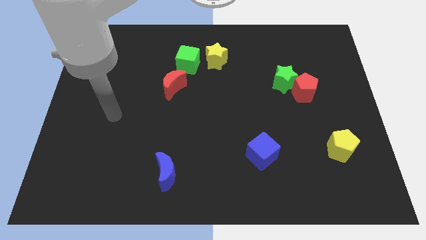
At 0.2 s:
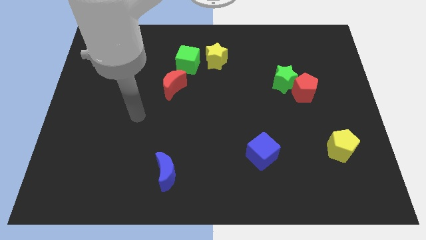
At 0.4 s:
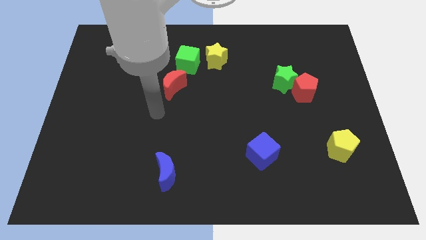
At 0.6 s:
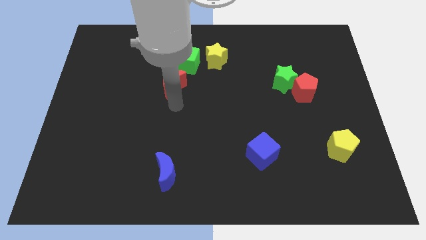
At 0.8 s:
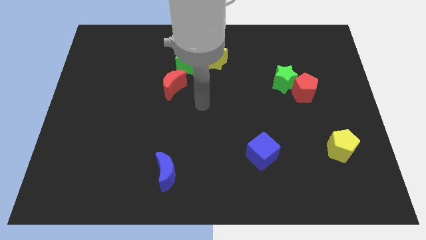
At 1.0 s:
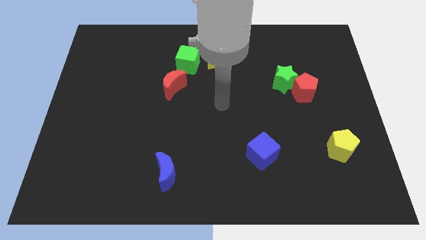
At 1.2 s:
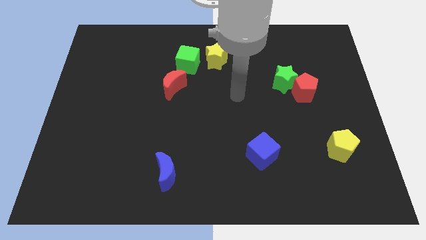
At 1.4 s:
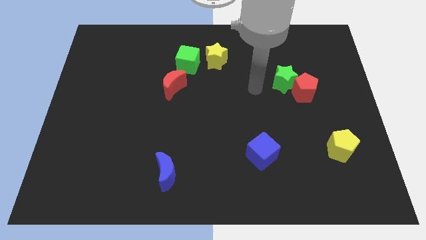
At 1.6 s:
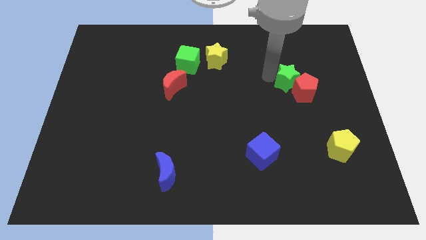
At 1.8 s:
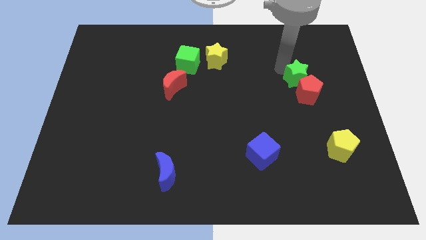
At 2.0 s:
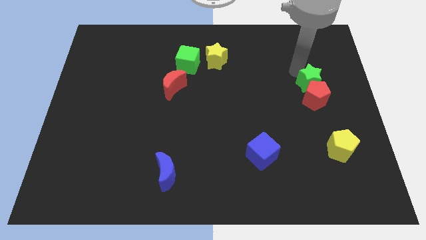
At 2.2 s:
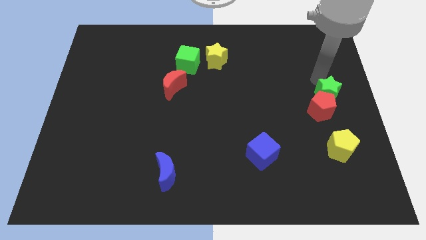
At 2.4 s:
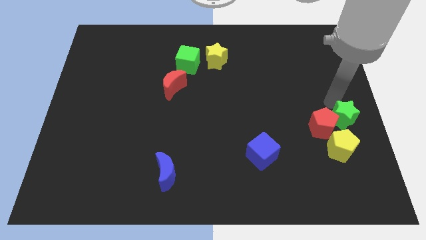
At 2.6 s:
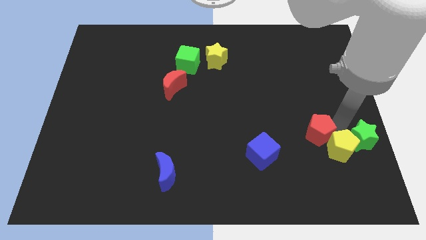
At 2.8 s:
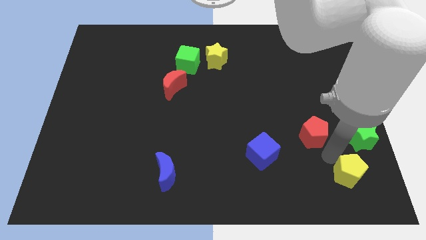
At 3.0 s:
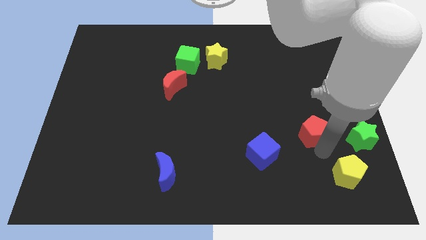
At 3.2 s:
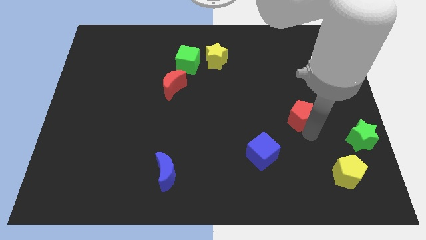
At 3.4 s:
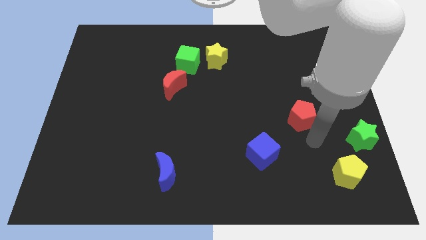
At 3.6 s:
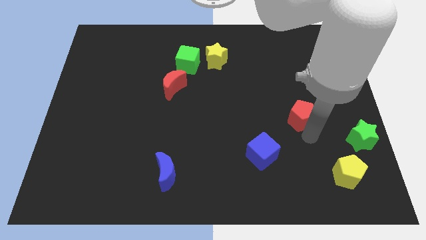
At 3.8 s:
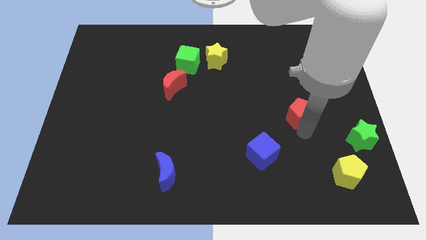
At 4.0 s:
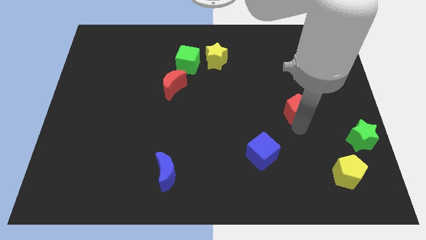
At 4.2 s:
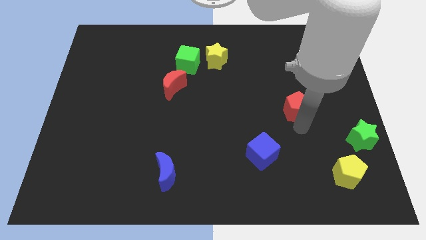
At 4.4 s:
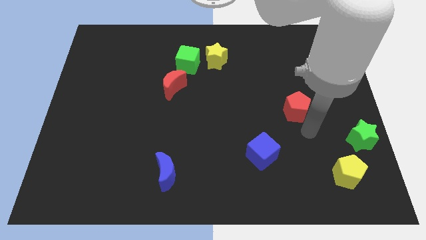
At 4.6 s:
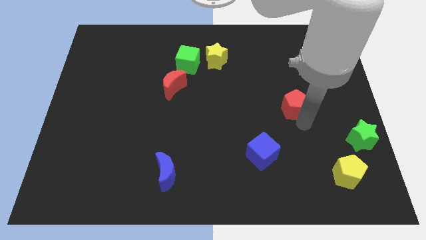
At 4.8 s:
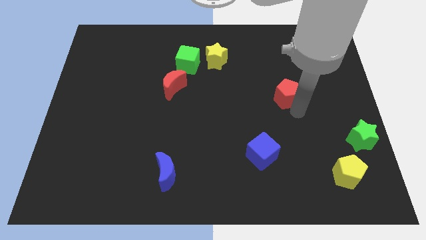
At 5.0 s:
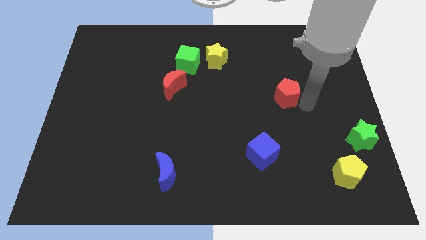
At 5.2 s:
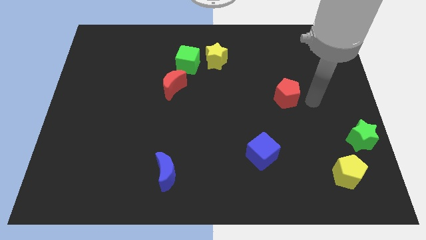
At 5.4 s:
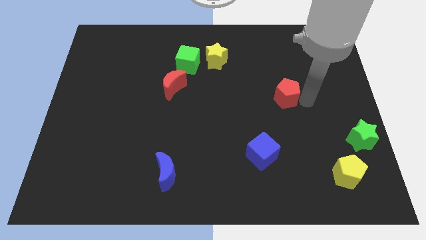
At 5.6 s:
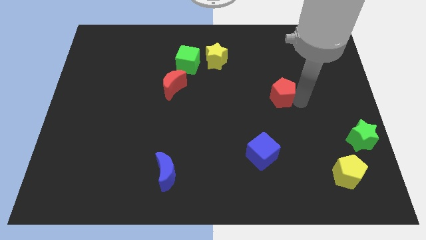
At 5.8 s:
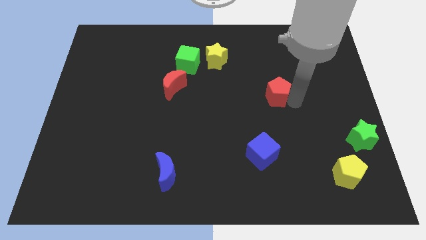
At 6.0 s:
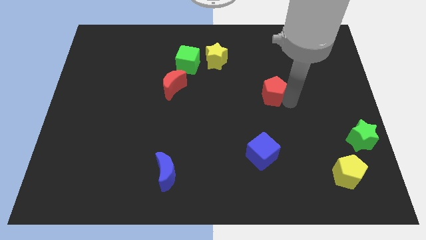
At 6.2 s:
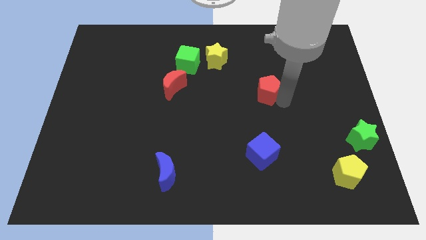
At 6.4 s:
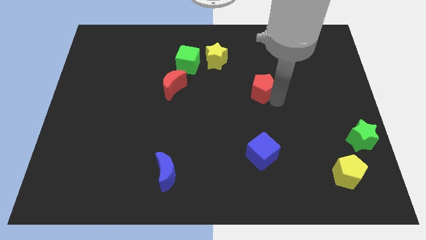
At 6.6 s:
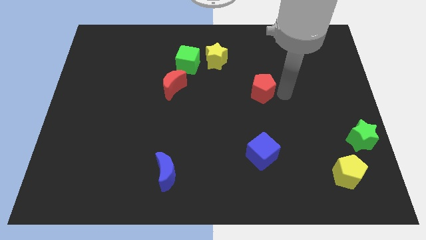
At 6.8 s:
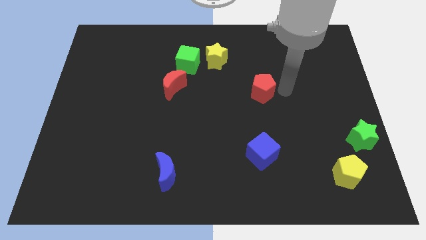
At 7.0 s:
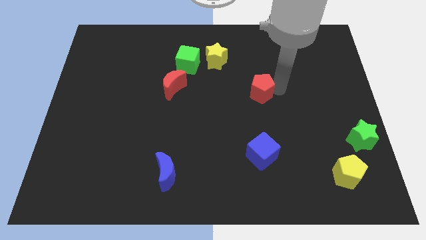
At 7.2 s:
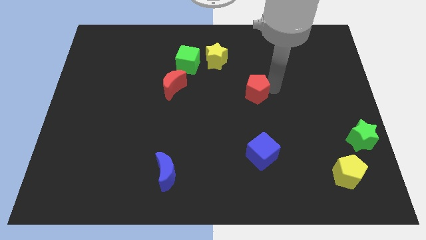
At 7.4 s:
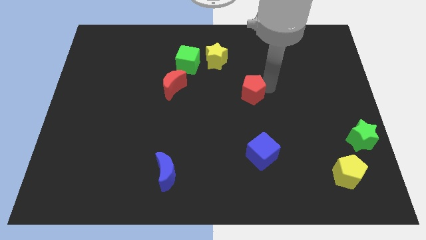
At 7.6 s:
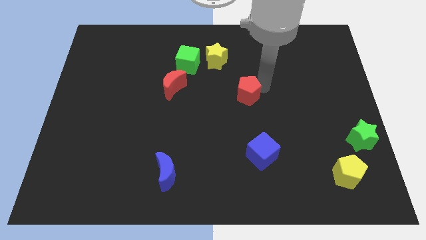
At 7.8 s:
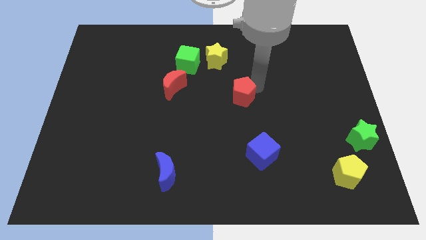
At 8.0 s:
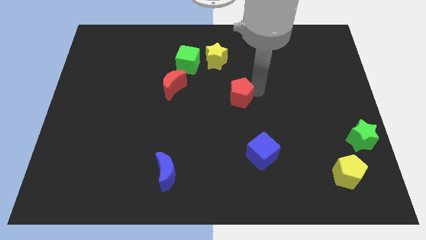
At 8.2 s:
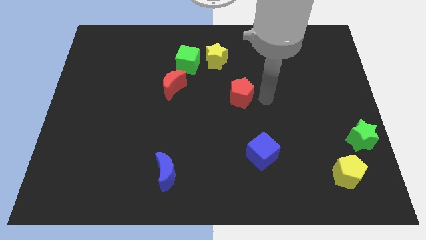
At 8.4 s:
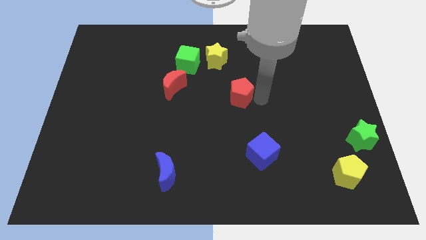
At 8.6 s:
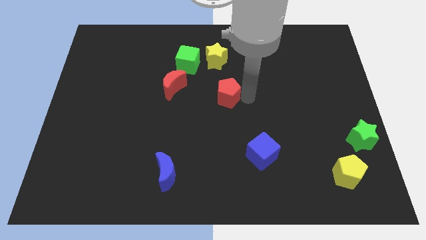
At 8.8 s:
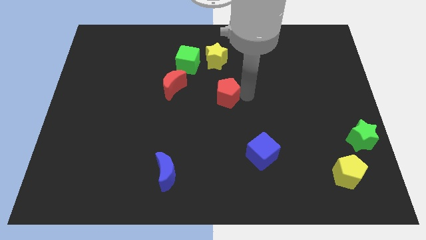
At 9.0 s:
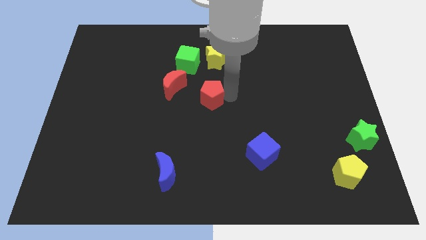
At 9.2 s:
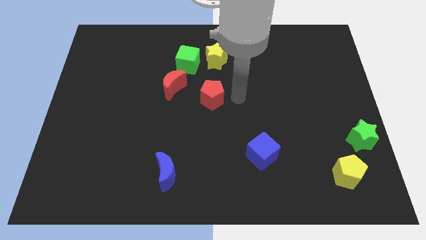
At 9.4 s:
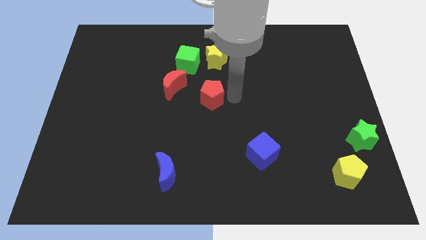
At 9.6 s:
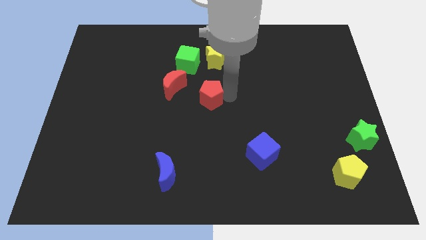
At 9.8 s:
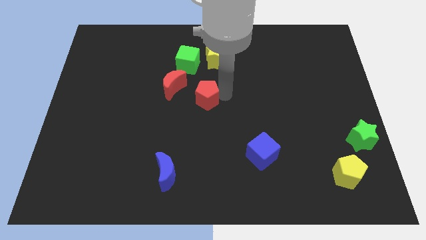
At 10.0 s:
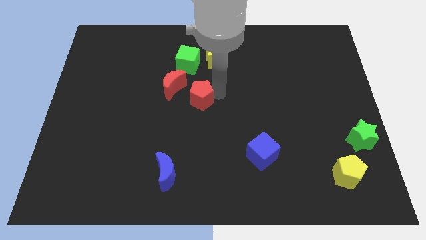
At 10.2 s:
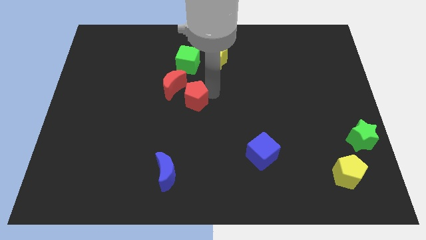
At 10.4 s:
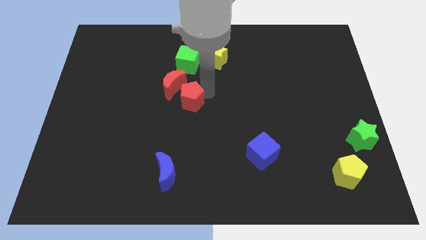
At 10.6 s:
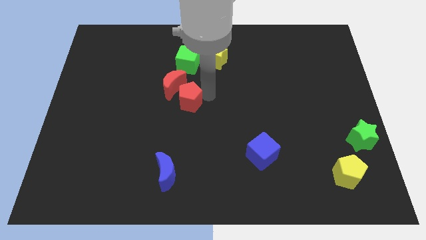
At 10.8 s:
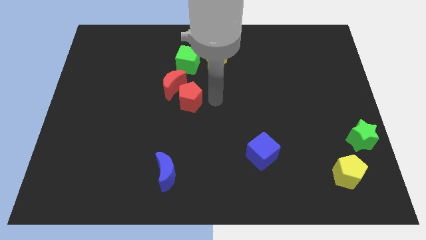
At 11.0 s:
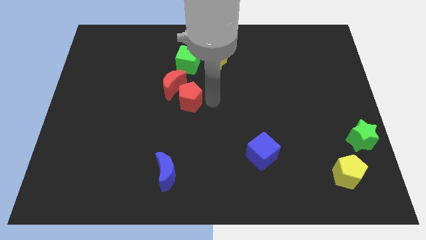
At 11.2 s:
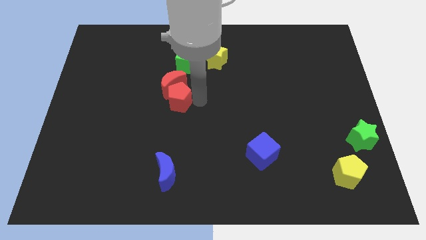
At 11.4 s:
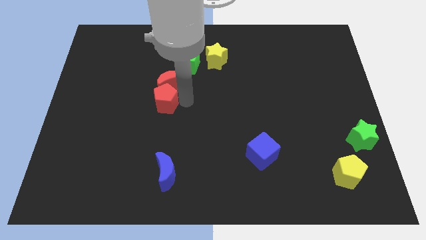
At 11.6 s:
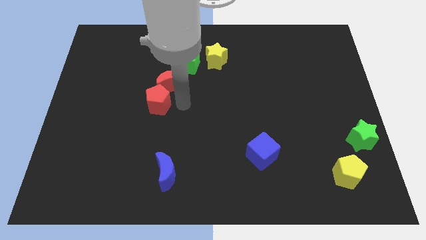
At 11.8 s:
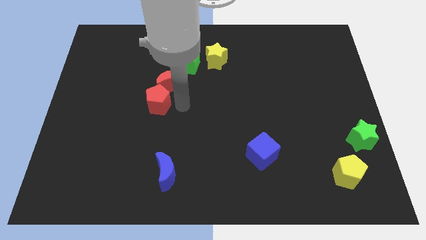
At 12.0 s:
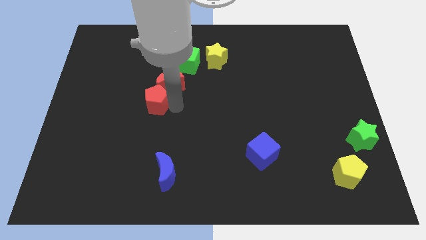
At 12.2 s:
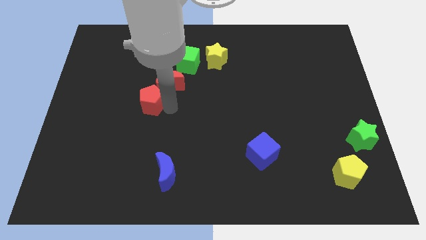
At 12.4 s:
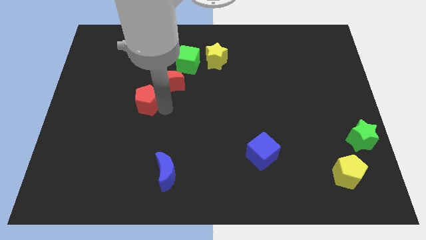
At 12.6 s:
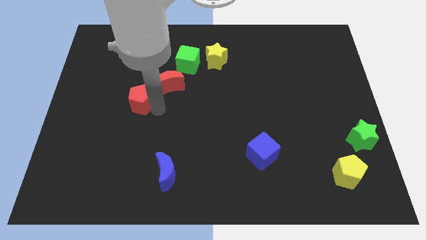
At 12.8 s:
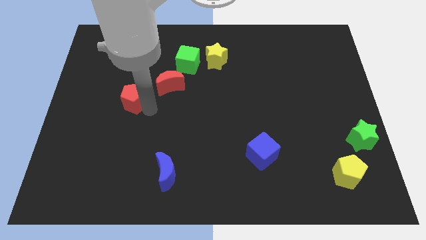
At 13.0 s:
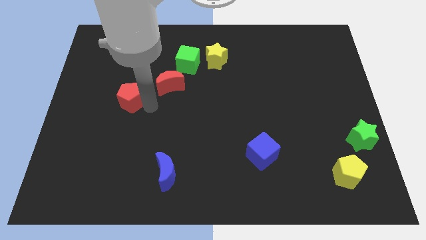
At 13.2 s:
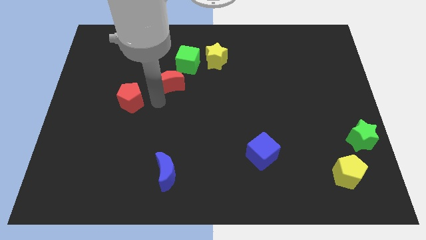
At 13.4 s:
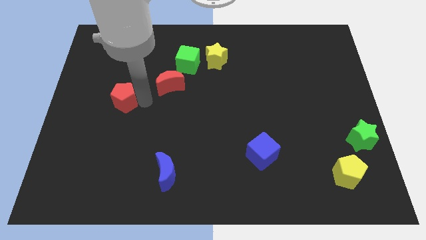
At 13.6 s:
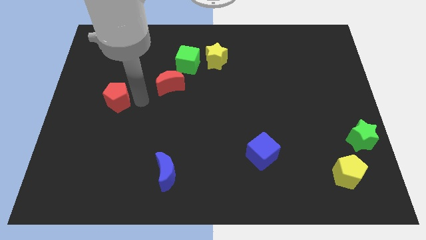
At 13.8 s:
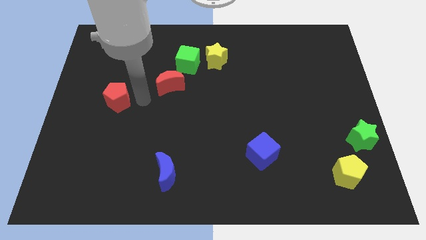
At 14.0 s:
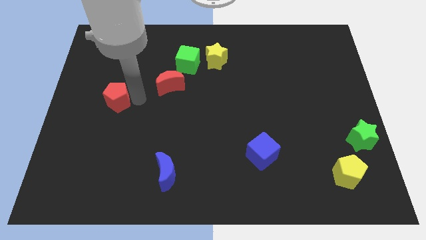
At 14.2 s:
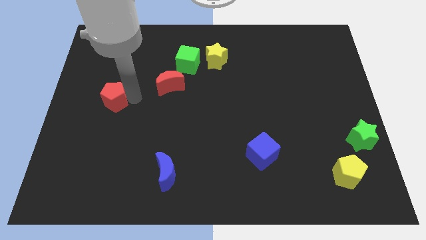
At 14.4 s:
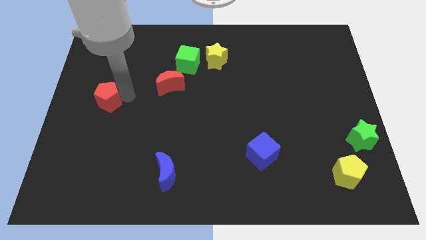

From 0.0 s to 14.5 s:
move the red pentagon to the left side of the board
